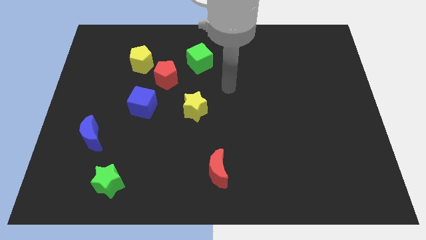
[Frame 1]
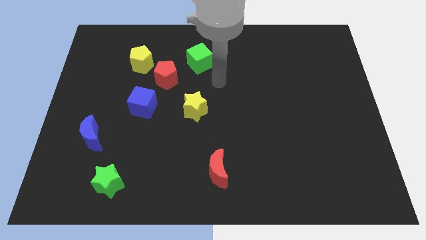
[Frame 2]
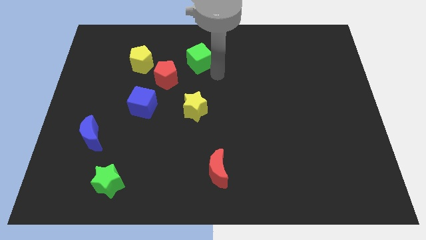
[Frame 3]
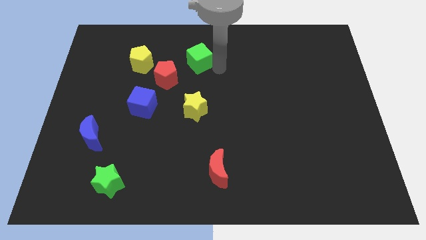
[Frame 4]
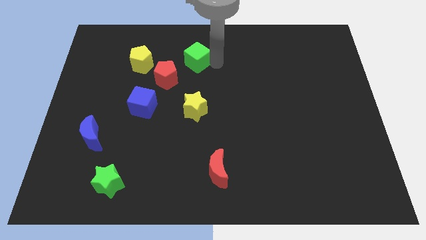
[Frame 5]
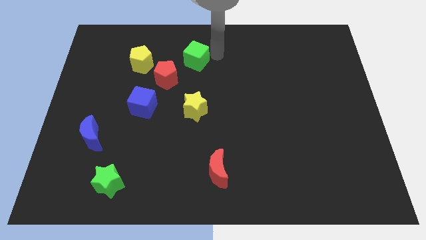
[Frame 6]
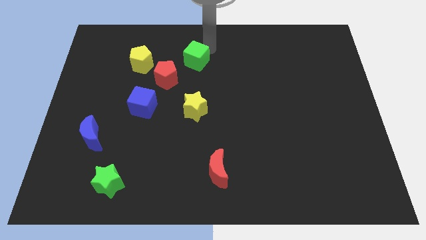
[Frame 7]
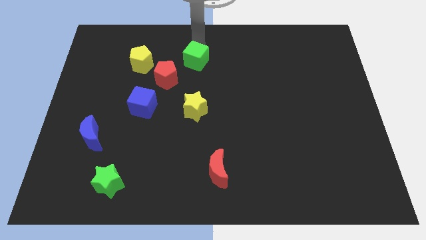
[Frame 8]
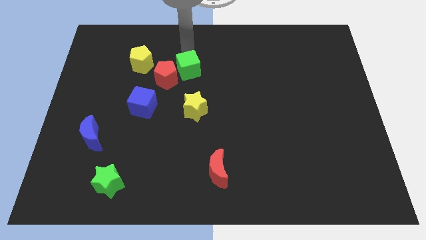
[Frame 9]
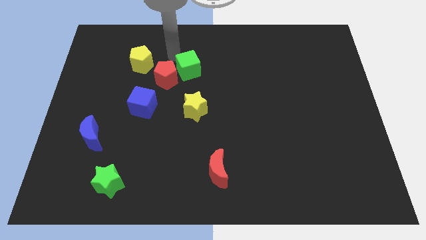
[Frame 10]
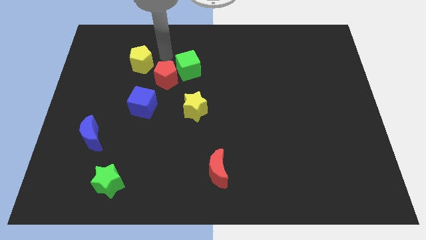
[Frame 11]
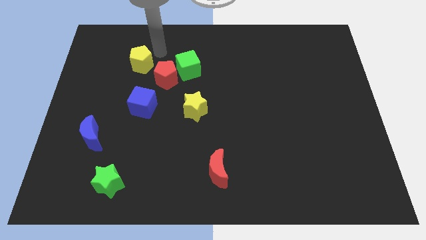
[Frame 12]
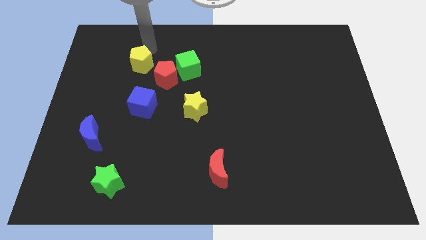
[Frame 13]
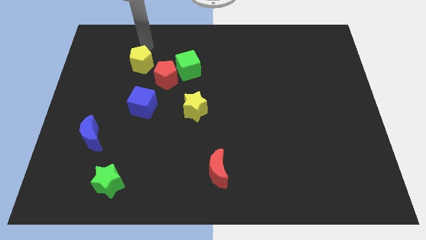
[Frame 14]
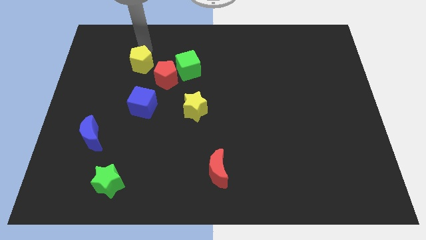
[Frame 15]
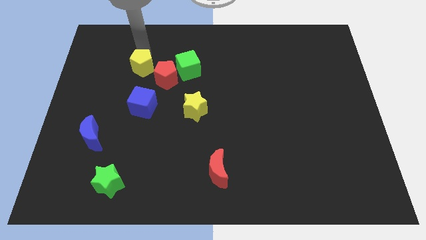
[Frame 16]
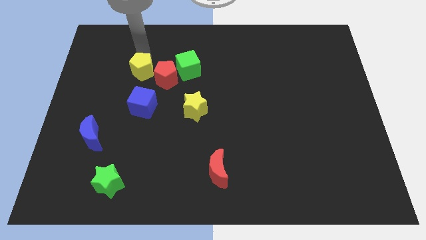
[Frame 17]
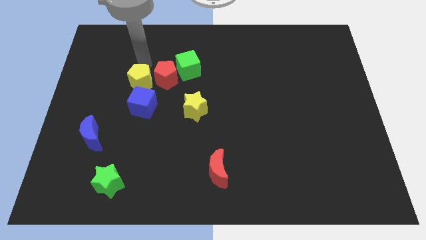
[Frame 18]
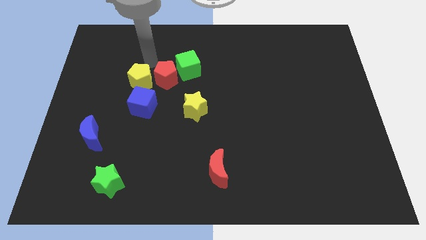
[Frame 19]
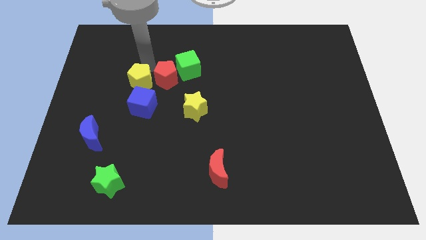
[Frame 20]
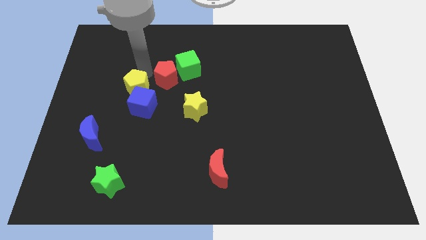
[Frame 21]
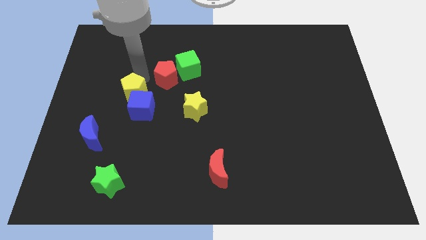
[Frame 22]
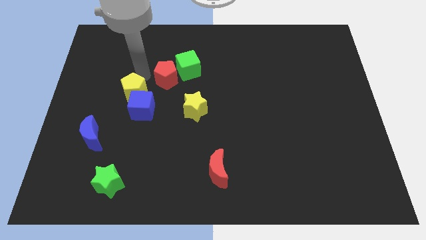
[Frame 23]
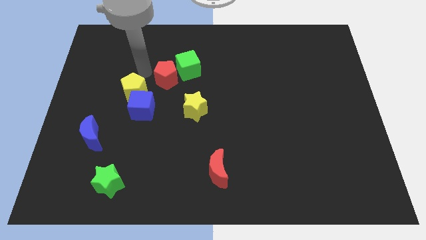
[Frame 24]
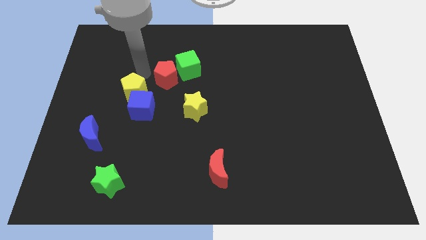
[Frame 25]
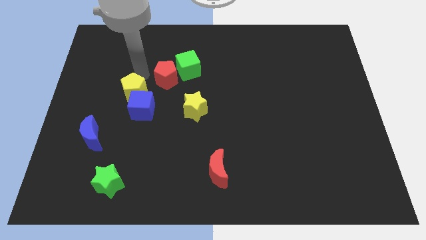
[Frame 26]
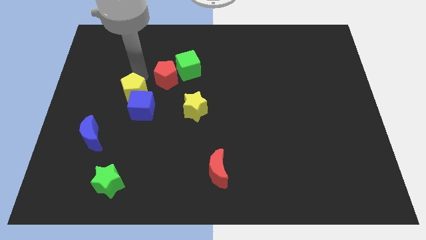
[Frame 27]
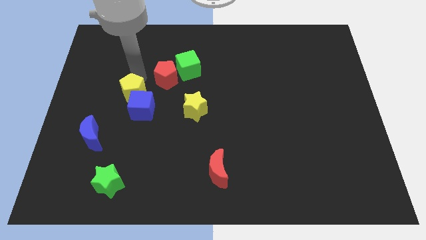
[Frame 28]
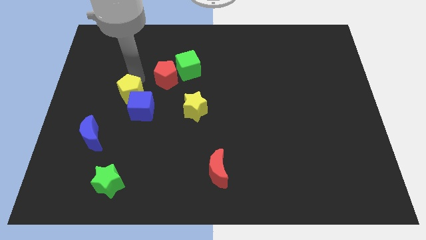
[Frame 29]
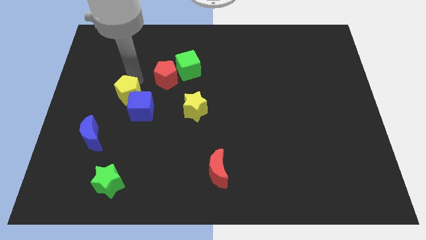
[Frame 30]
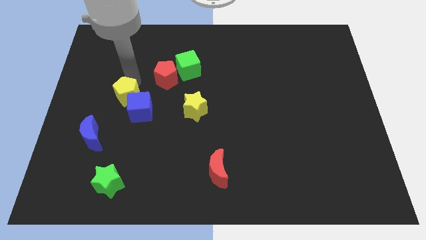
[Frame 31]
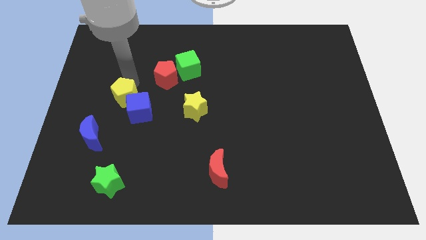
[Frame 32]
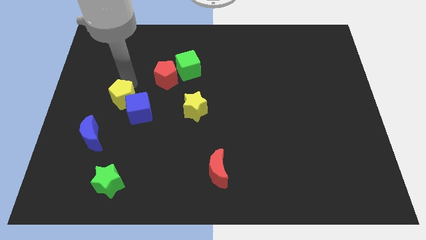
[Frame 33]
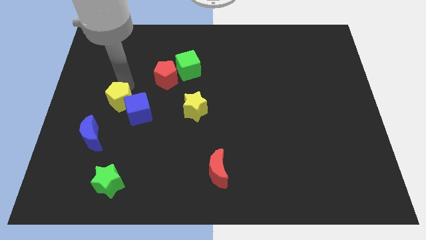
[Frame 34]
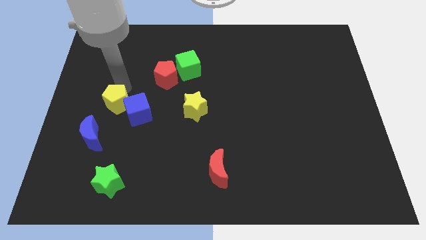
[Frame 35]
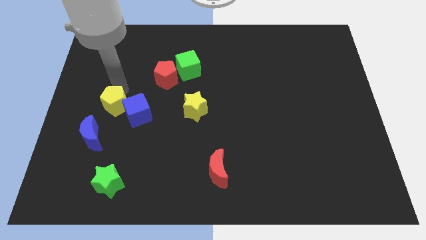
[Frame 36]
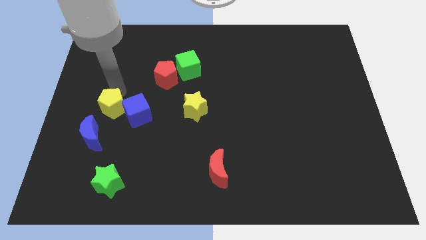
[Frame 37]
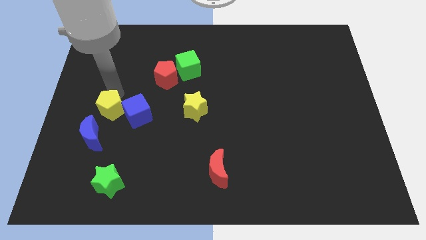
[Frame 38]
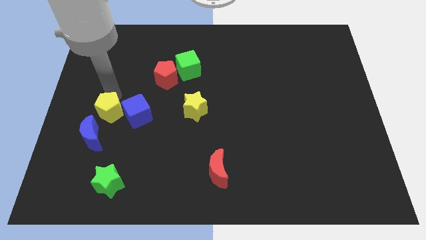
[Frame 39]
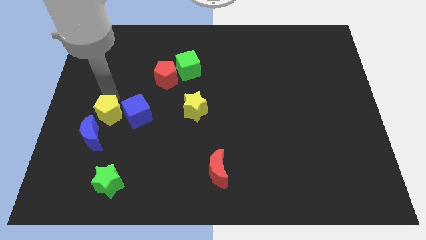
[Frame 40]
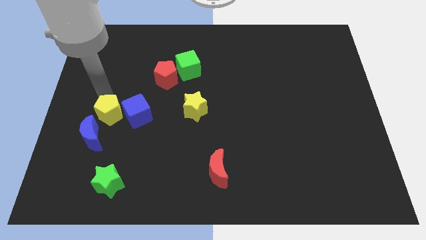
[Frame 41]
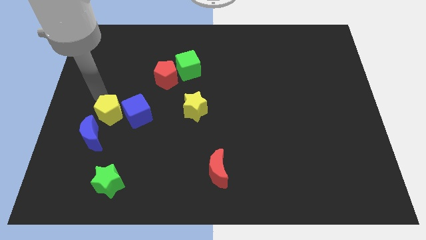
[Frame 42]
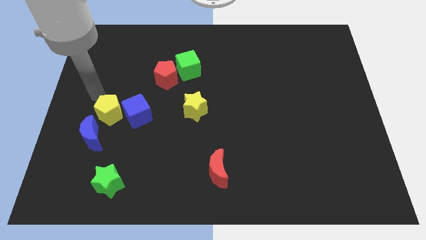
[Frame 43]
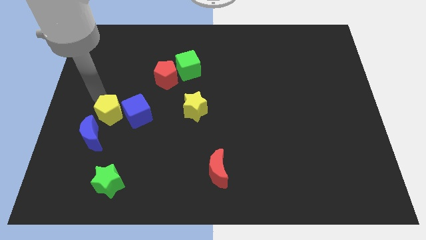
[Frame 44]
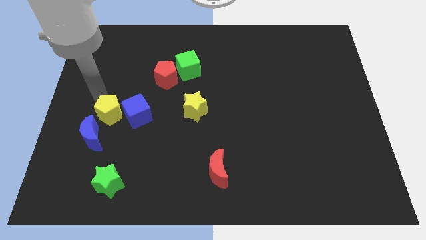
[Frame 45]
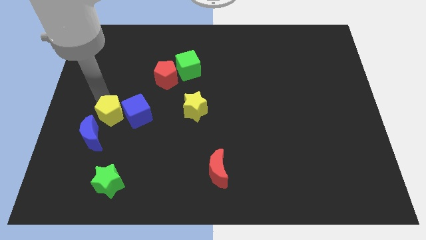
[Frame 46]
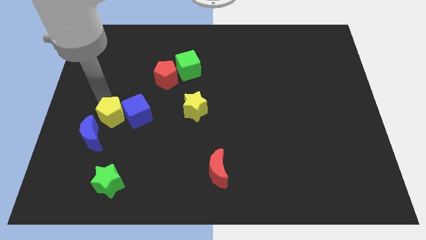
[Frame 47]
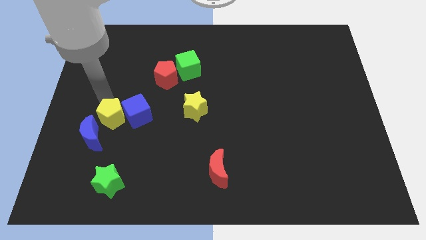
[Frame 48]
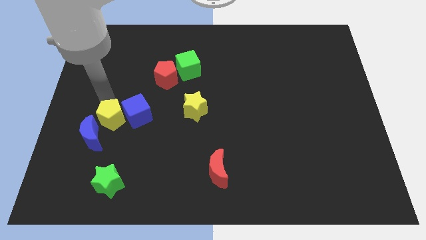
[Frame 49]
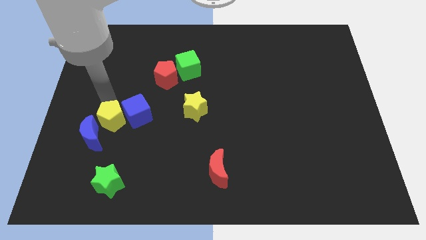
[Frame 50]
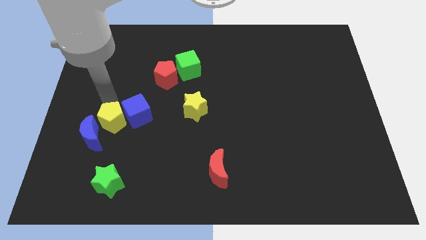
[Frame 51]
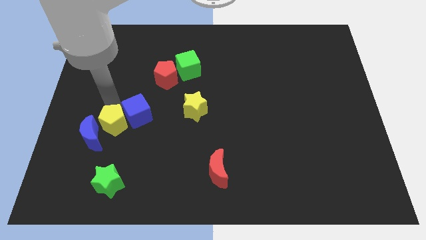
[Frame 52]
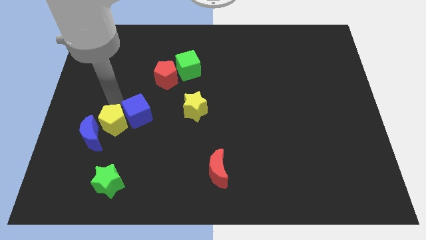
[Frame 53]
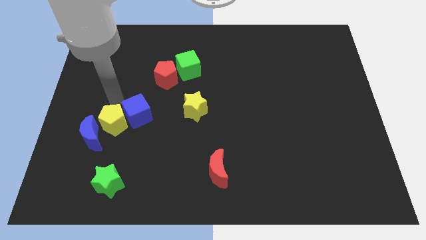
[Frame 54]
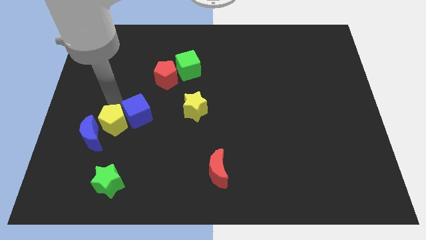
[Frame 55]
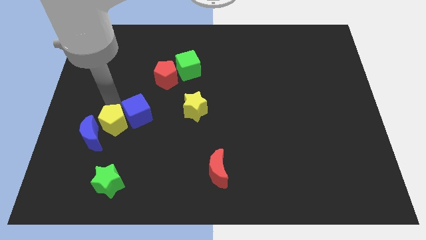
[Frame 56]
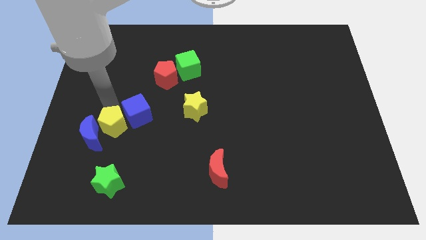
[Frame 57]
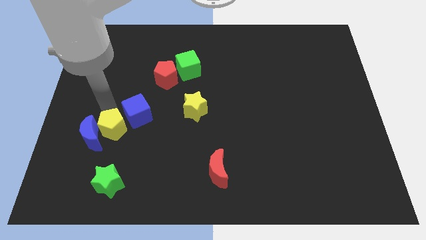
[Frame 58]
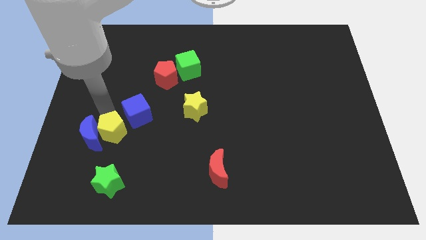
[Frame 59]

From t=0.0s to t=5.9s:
push the yellow pentagon diagonally down and to the right of the blue moon

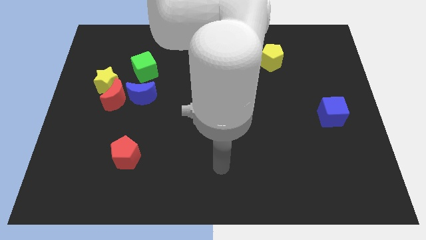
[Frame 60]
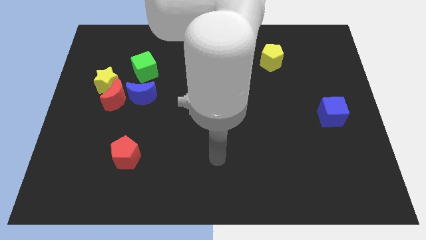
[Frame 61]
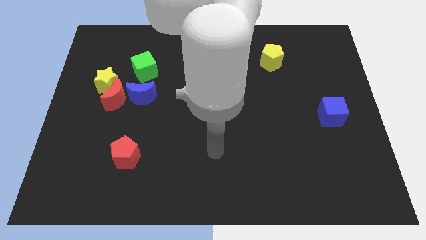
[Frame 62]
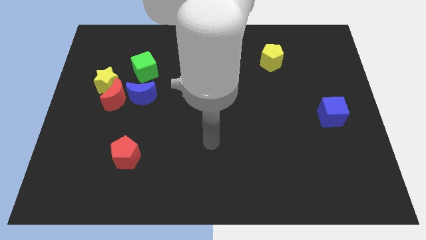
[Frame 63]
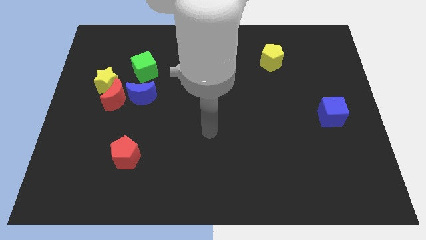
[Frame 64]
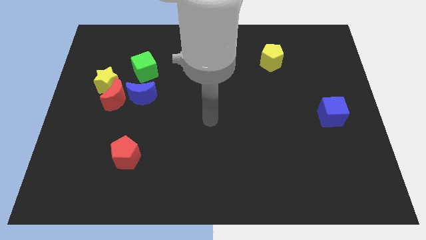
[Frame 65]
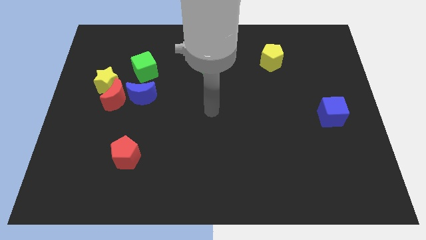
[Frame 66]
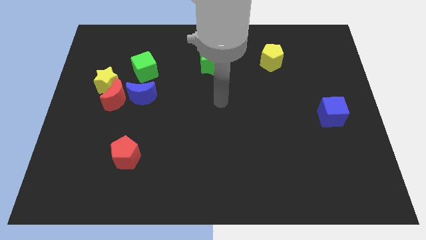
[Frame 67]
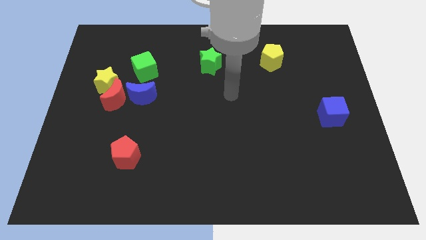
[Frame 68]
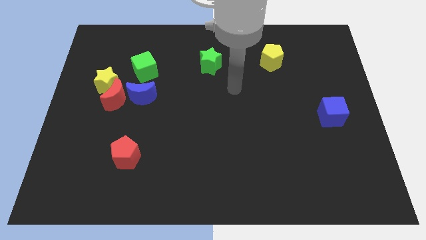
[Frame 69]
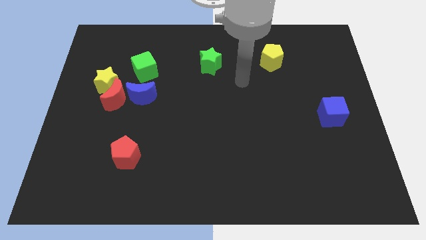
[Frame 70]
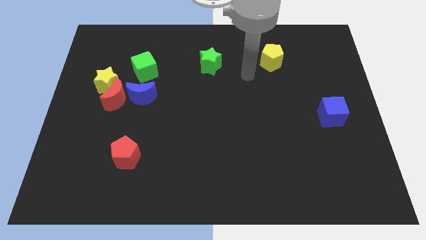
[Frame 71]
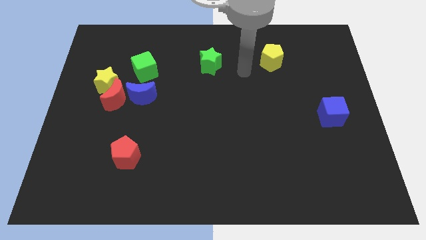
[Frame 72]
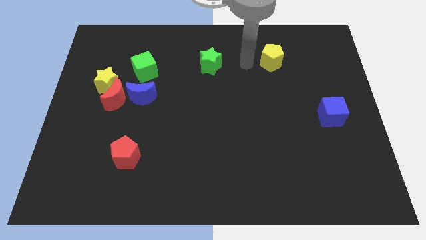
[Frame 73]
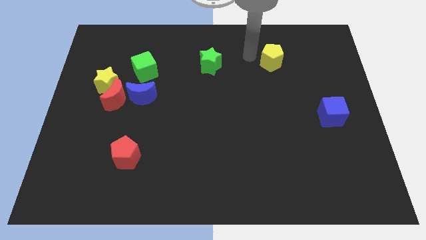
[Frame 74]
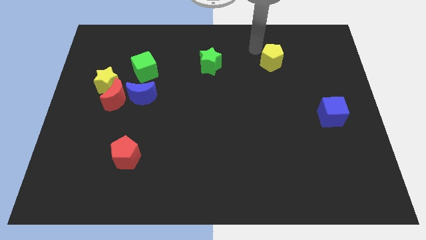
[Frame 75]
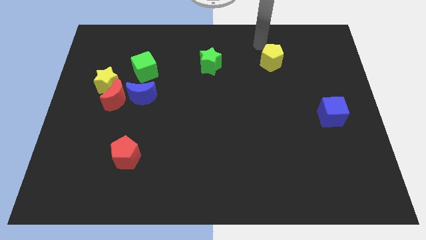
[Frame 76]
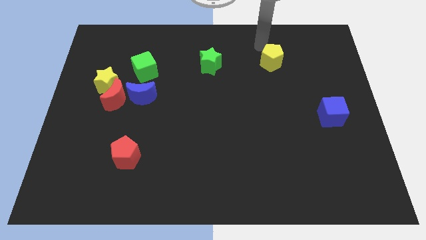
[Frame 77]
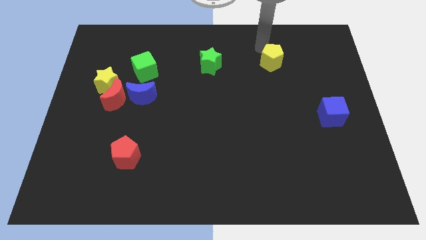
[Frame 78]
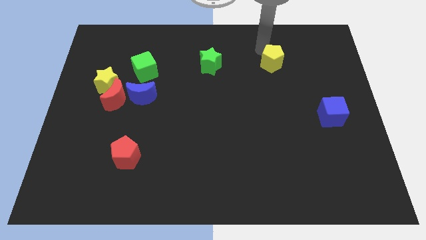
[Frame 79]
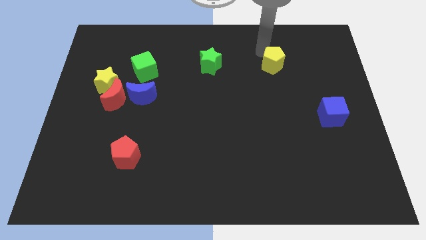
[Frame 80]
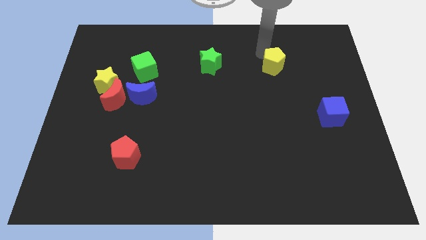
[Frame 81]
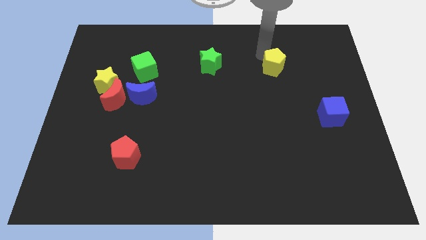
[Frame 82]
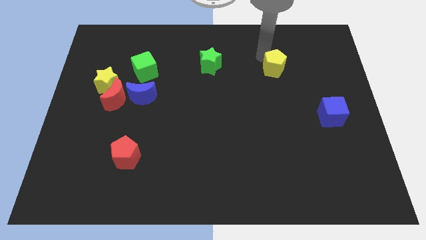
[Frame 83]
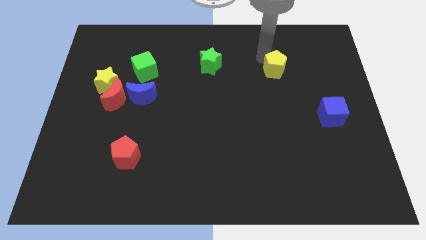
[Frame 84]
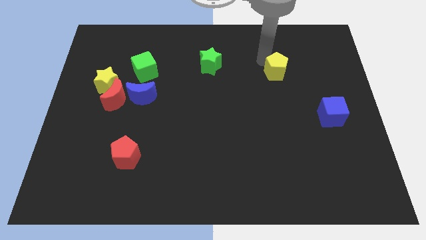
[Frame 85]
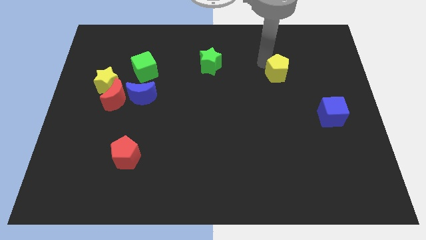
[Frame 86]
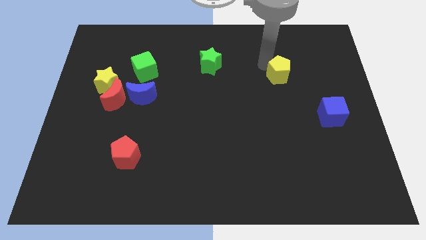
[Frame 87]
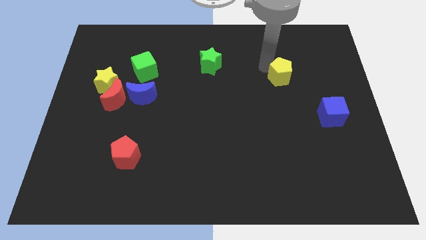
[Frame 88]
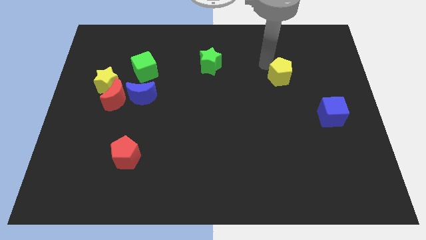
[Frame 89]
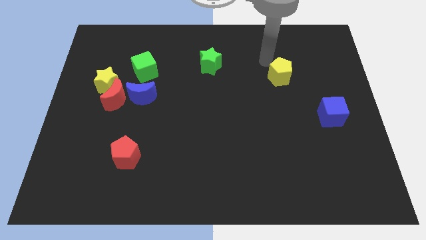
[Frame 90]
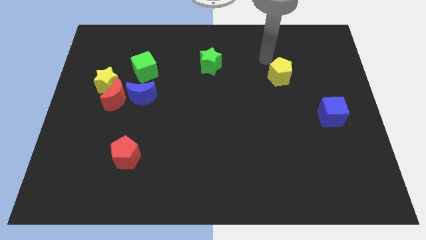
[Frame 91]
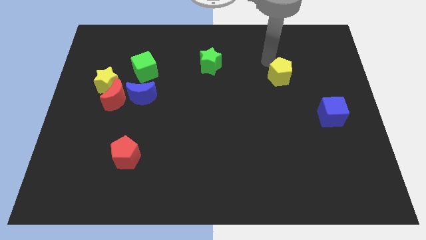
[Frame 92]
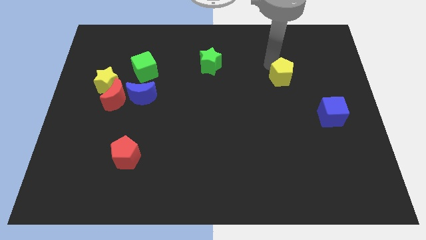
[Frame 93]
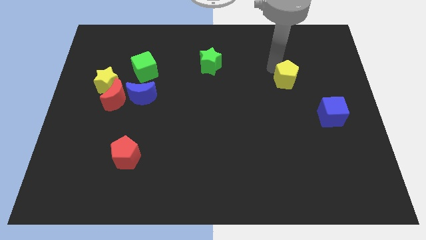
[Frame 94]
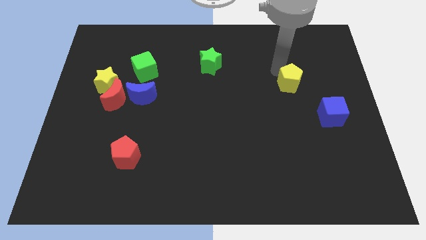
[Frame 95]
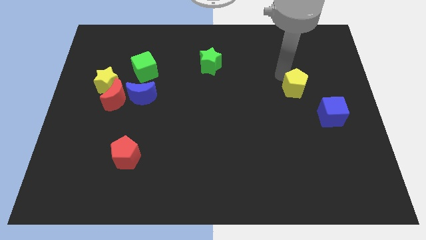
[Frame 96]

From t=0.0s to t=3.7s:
put the yellow pentagon to the top left of the blue cube
